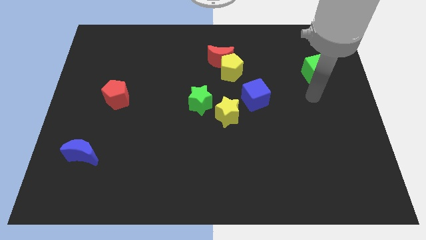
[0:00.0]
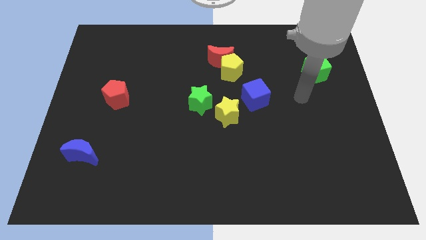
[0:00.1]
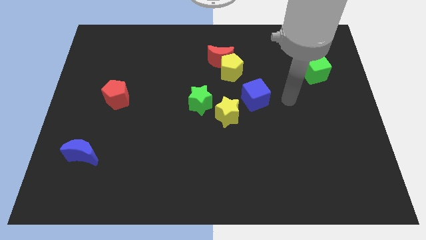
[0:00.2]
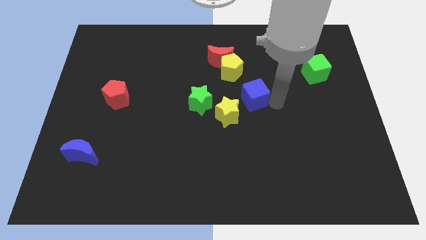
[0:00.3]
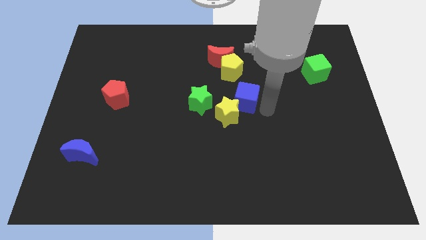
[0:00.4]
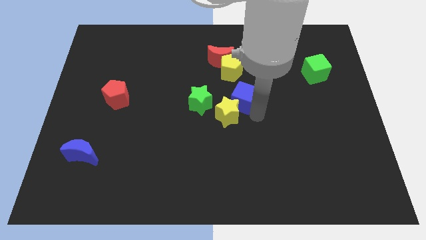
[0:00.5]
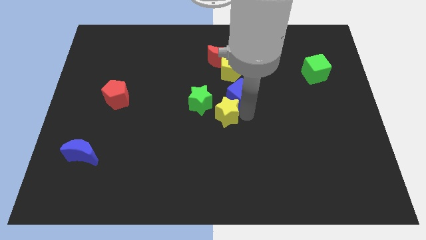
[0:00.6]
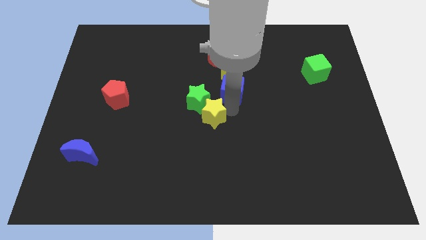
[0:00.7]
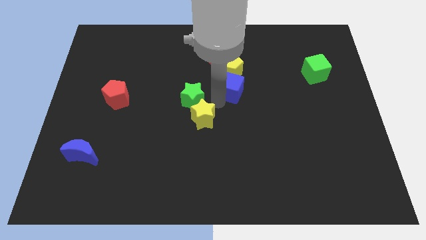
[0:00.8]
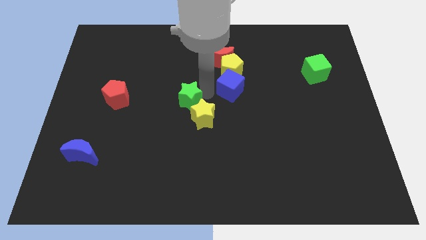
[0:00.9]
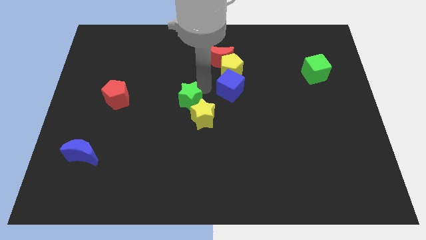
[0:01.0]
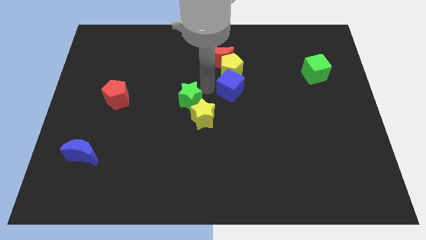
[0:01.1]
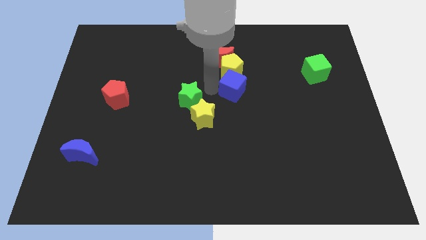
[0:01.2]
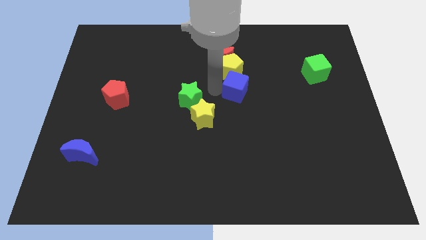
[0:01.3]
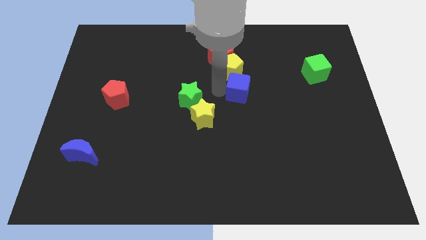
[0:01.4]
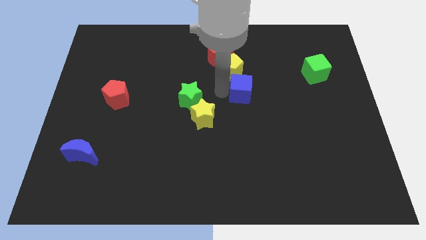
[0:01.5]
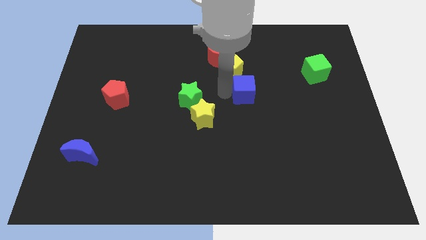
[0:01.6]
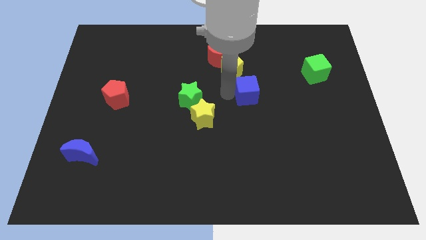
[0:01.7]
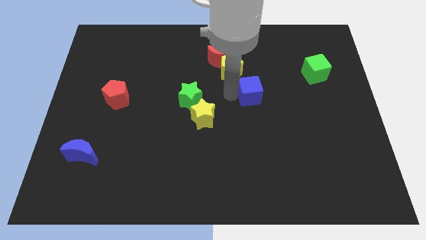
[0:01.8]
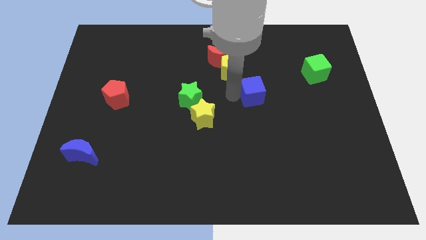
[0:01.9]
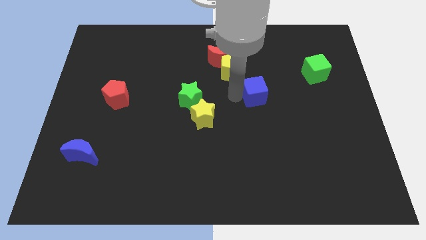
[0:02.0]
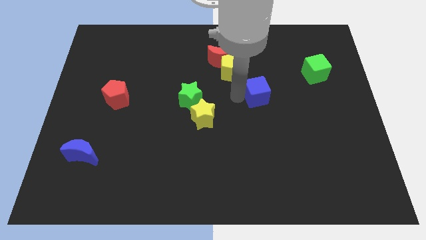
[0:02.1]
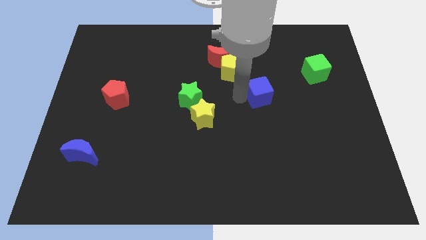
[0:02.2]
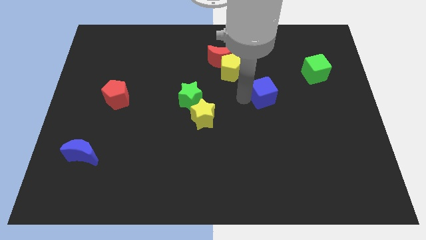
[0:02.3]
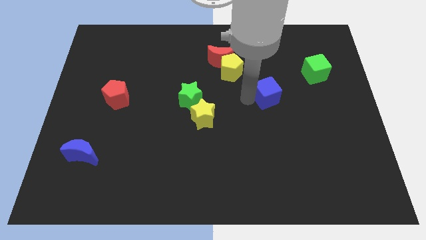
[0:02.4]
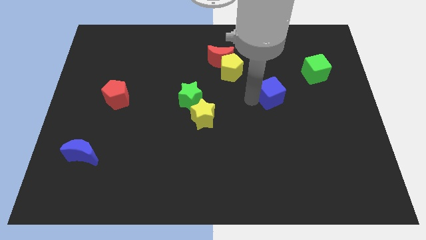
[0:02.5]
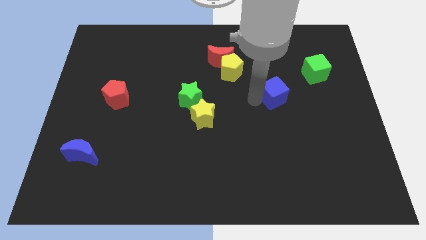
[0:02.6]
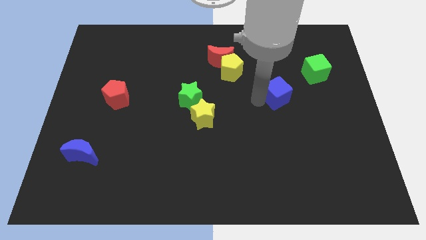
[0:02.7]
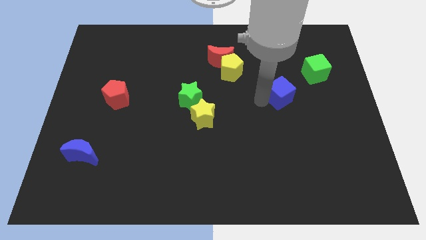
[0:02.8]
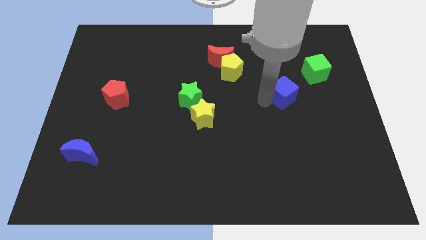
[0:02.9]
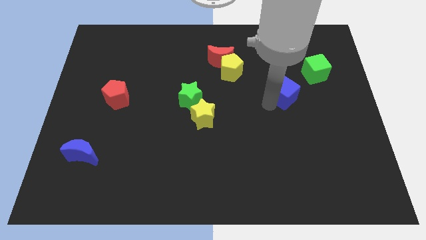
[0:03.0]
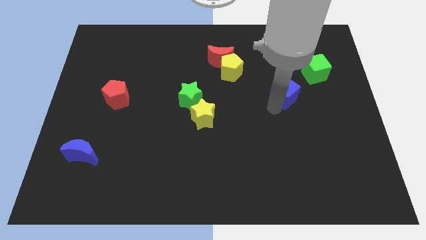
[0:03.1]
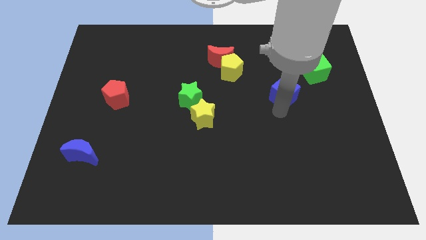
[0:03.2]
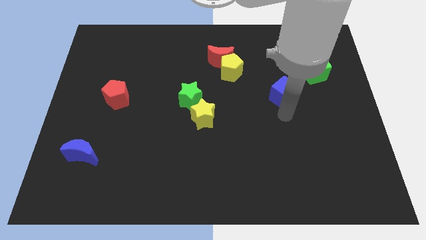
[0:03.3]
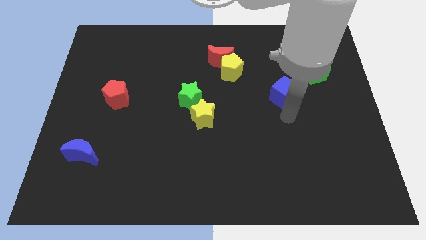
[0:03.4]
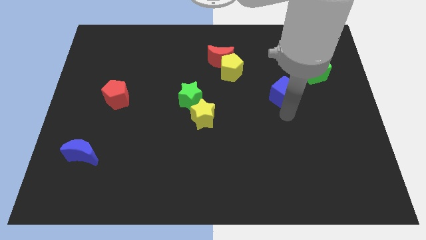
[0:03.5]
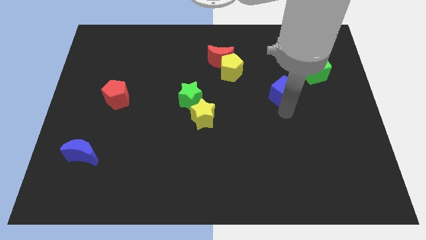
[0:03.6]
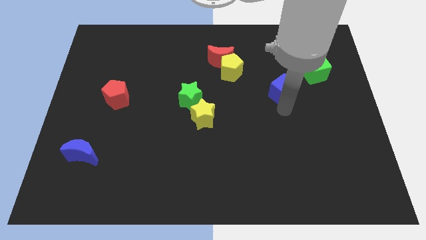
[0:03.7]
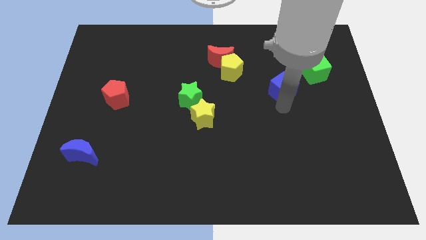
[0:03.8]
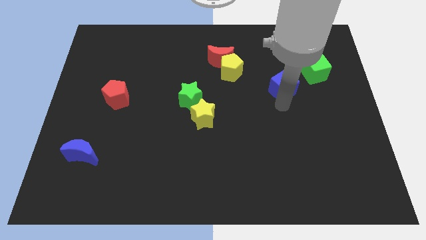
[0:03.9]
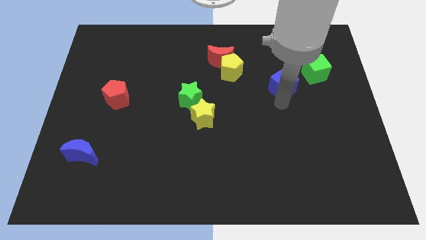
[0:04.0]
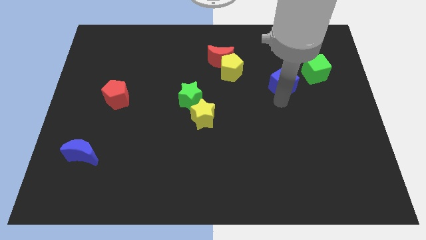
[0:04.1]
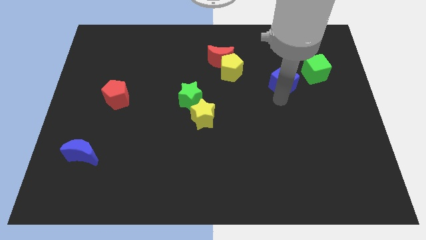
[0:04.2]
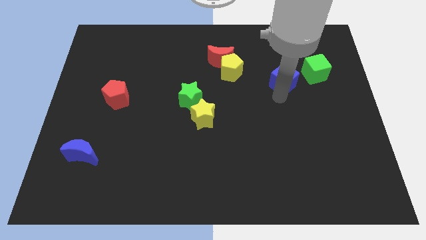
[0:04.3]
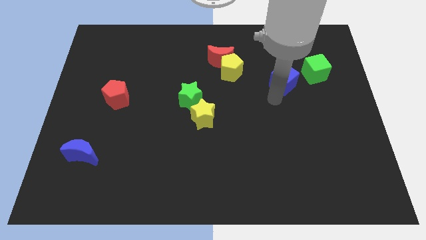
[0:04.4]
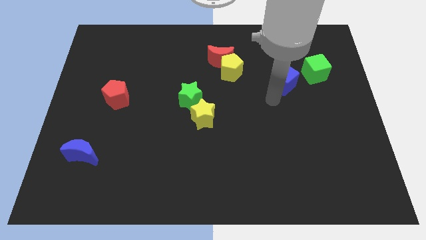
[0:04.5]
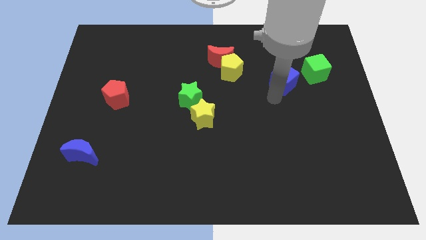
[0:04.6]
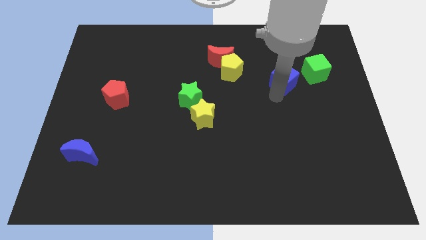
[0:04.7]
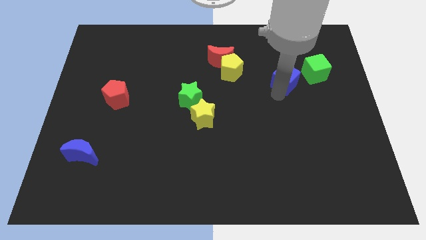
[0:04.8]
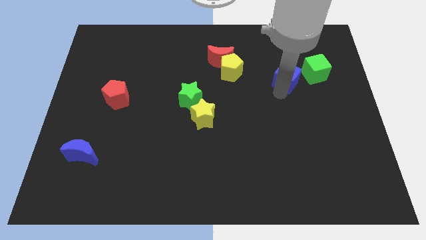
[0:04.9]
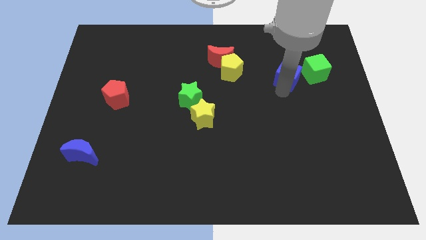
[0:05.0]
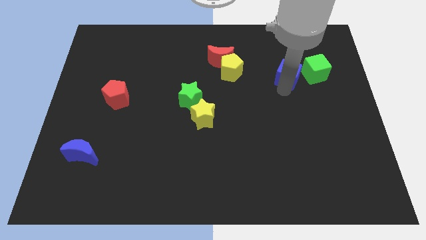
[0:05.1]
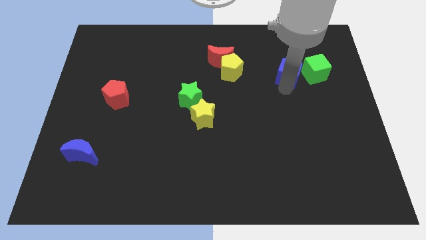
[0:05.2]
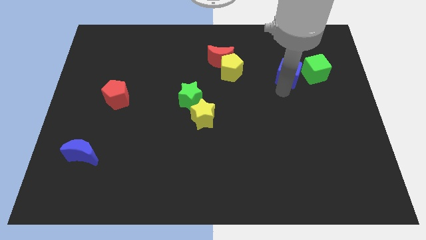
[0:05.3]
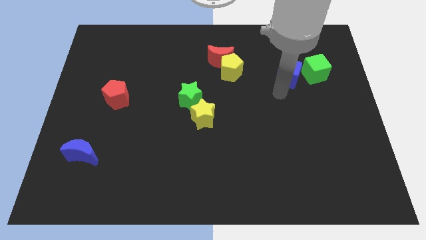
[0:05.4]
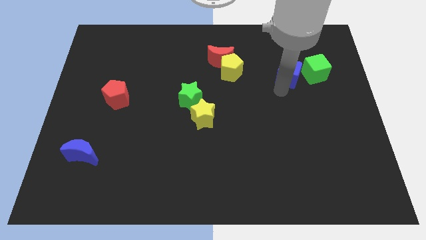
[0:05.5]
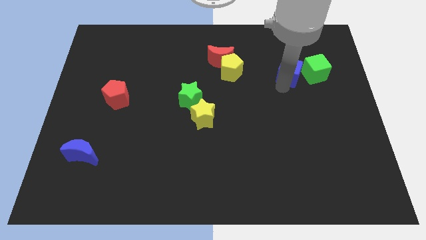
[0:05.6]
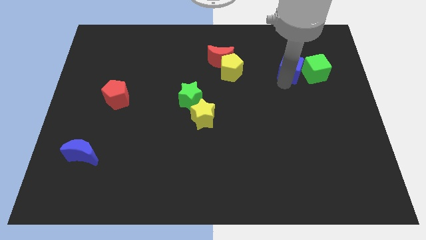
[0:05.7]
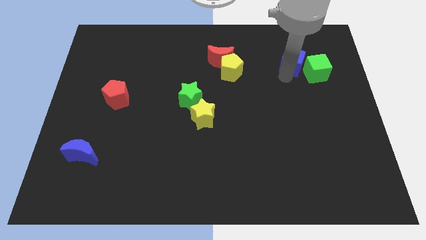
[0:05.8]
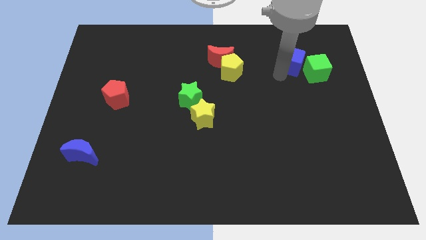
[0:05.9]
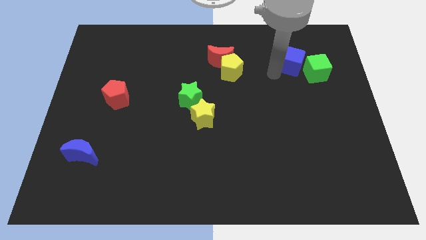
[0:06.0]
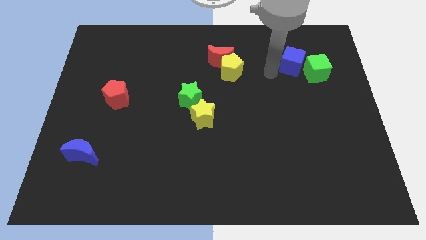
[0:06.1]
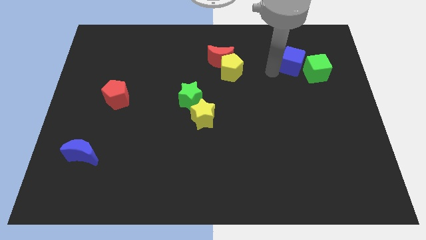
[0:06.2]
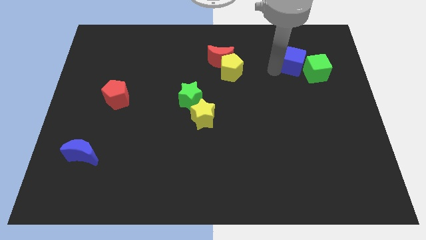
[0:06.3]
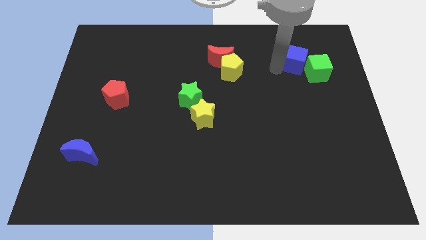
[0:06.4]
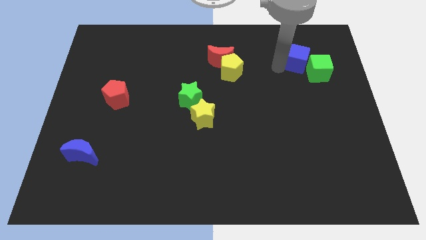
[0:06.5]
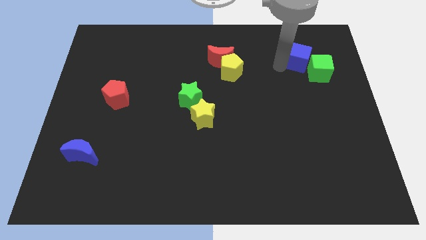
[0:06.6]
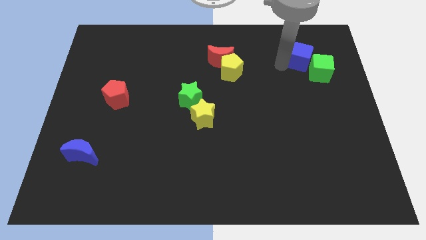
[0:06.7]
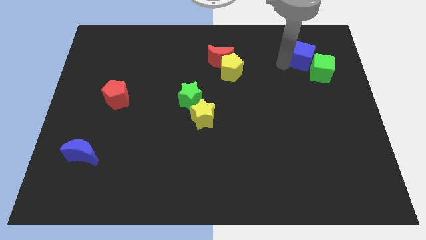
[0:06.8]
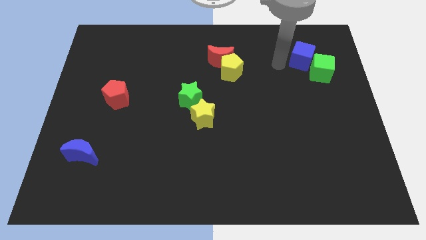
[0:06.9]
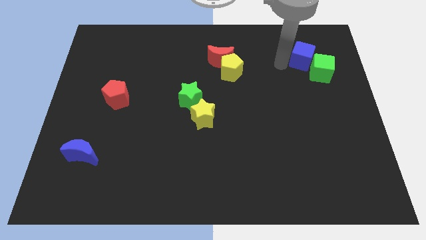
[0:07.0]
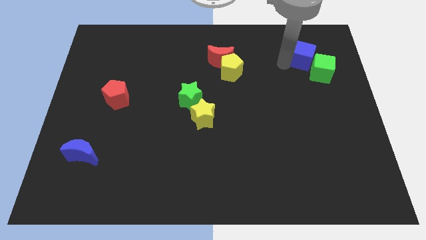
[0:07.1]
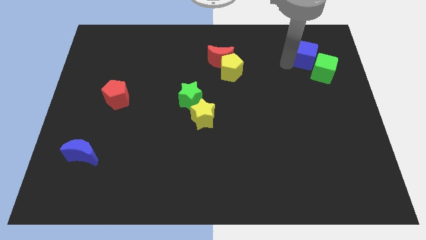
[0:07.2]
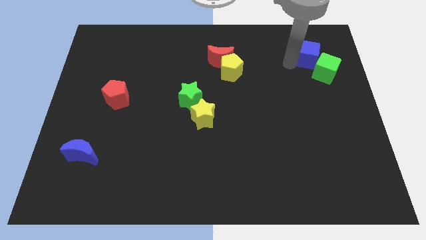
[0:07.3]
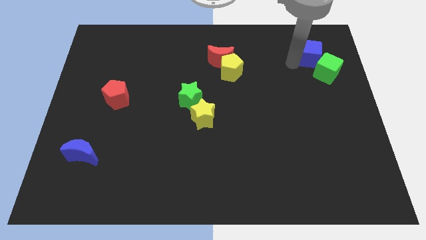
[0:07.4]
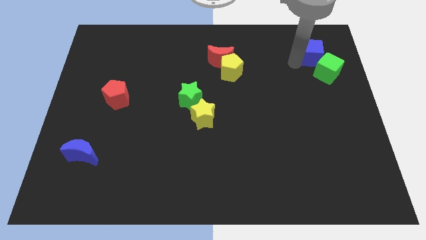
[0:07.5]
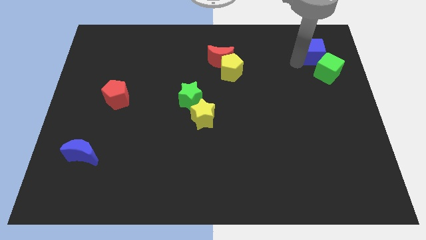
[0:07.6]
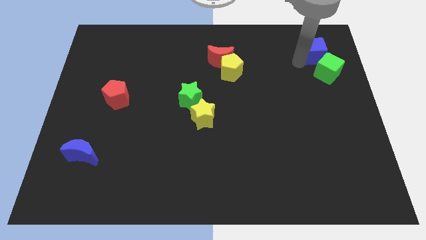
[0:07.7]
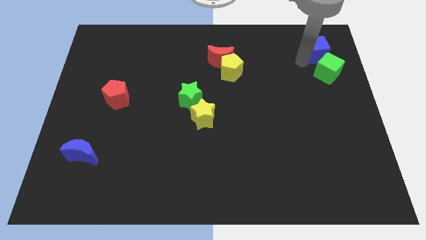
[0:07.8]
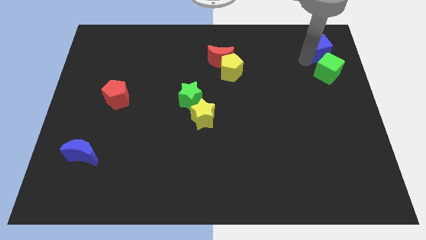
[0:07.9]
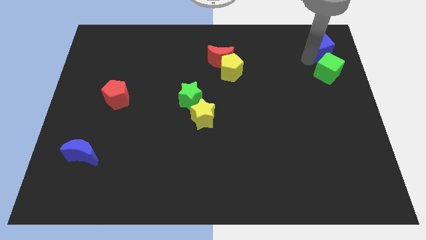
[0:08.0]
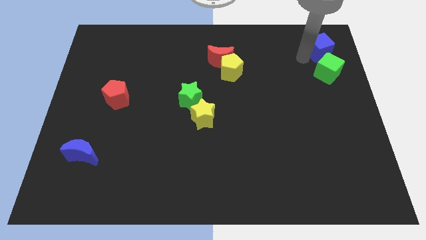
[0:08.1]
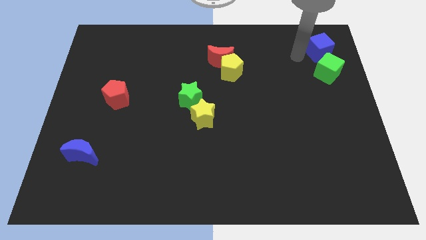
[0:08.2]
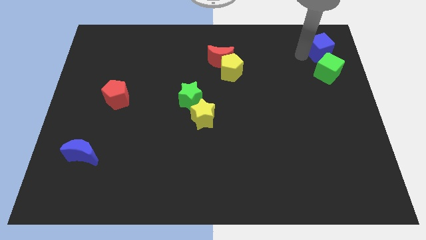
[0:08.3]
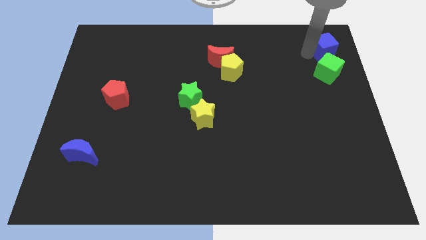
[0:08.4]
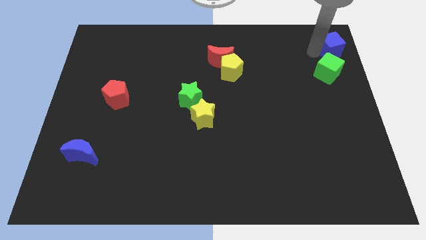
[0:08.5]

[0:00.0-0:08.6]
slide the blue cube to the top right corner
